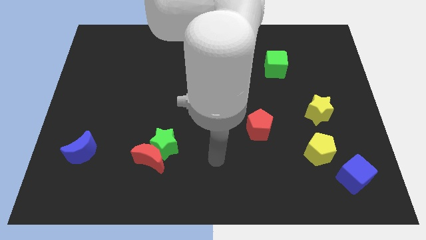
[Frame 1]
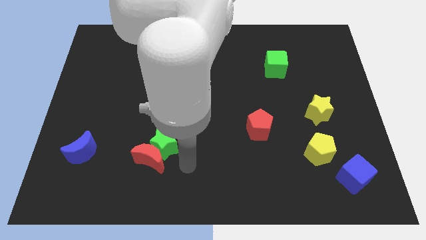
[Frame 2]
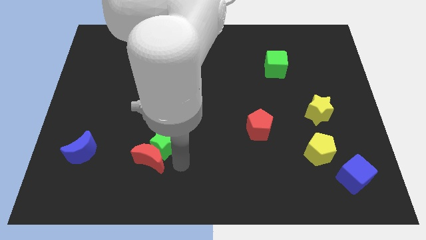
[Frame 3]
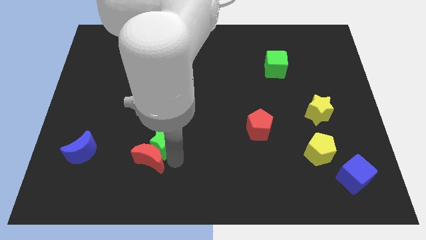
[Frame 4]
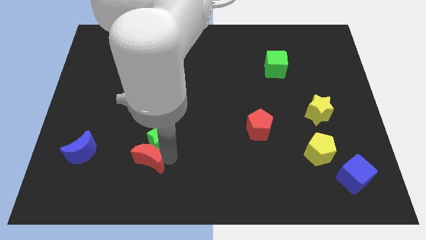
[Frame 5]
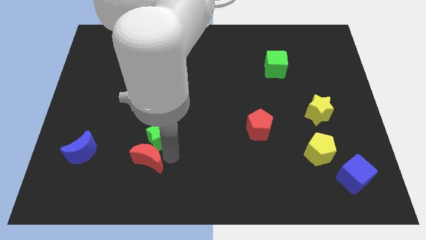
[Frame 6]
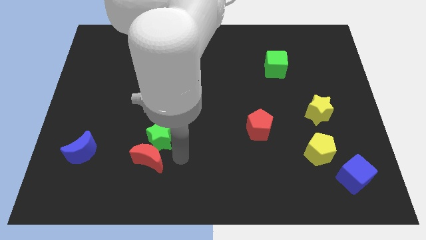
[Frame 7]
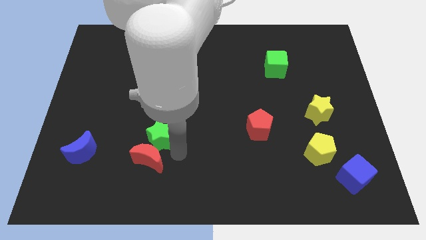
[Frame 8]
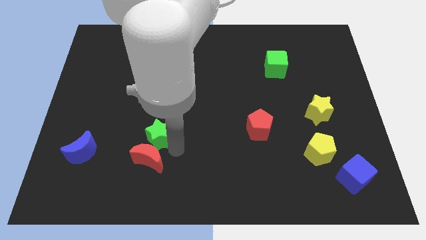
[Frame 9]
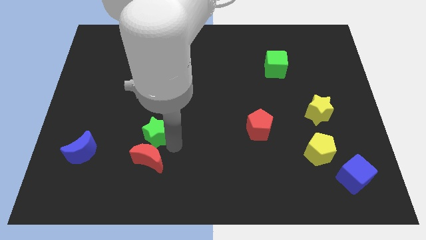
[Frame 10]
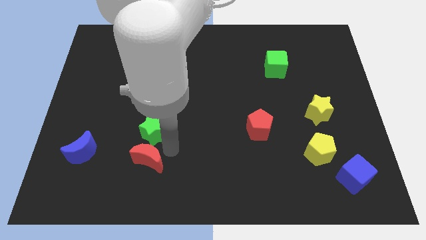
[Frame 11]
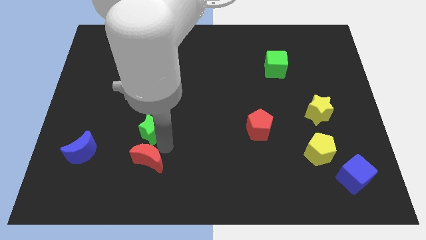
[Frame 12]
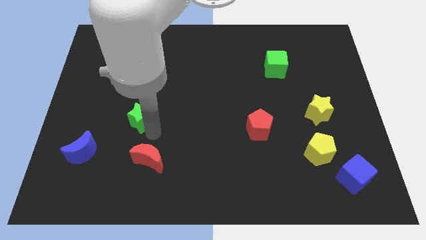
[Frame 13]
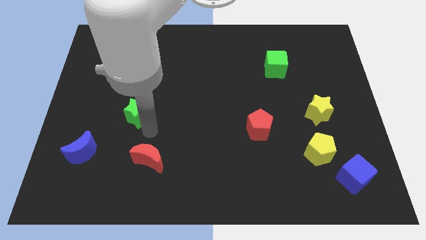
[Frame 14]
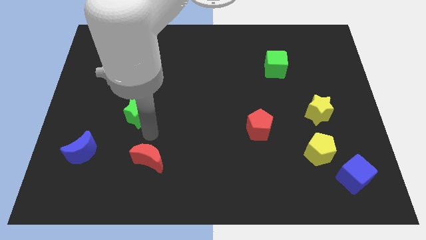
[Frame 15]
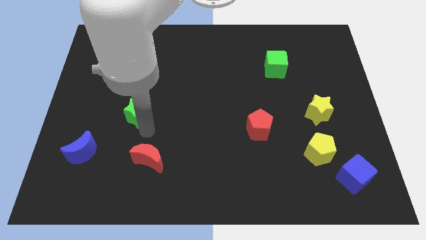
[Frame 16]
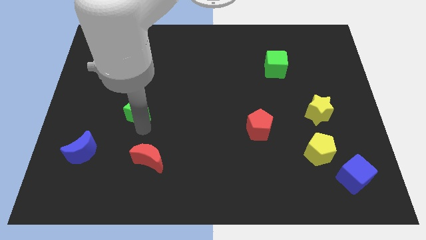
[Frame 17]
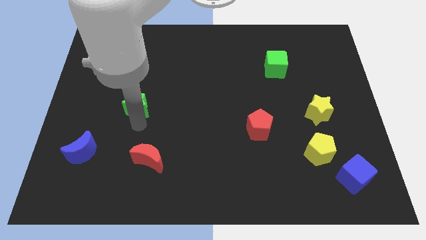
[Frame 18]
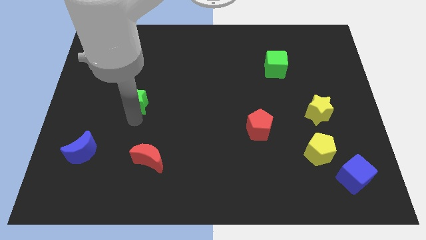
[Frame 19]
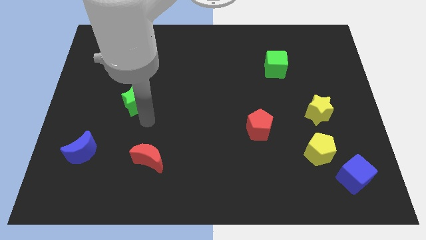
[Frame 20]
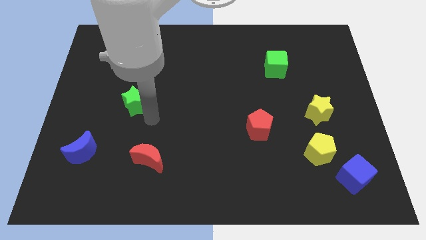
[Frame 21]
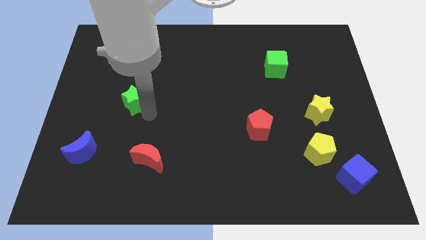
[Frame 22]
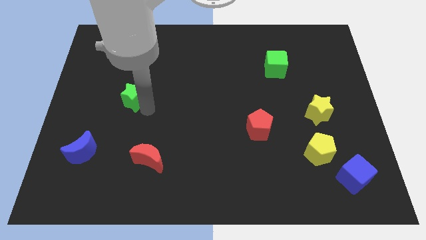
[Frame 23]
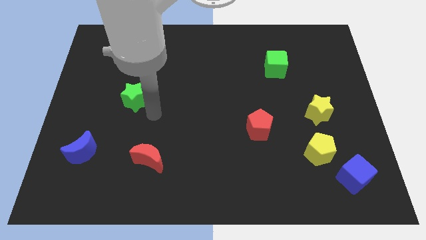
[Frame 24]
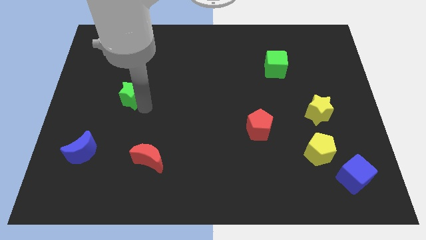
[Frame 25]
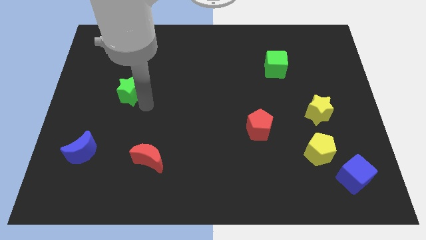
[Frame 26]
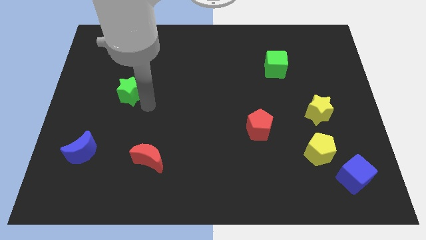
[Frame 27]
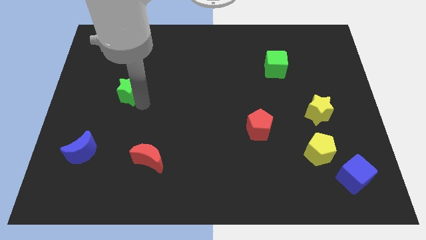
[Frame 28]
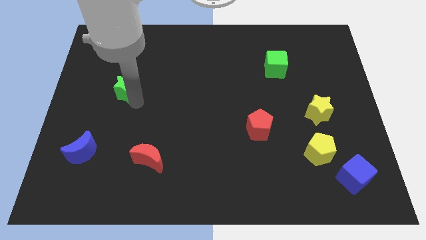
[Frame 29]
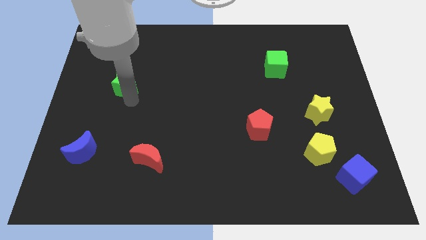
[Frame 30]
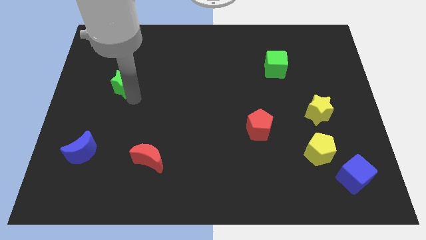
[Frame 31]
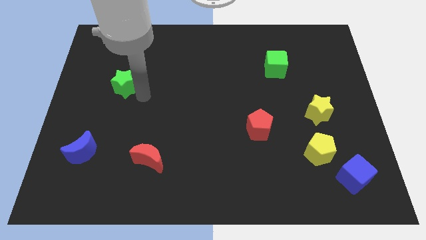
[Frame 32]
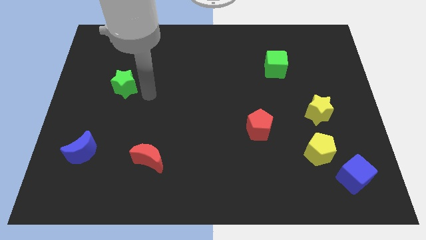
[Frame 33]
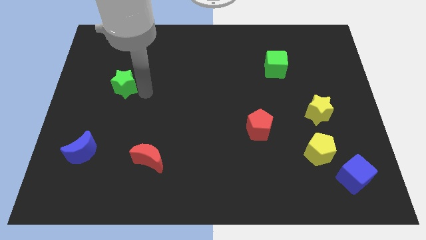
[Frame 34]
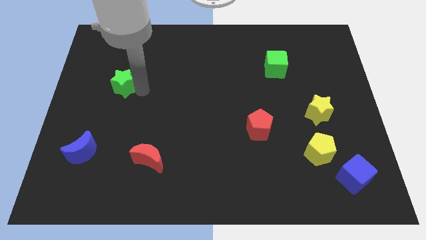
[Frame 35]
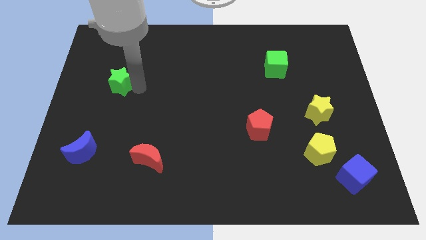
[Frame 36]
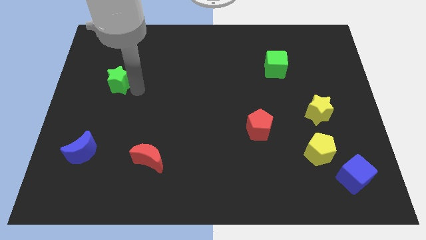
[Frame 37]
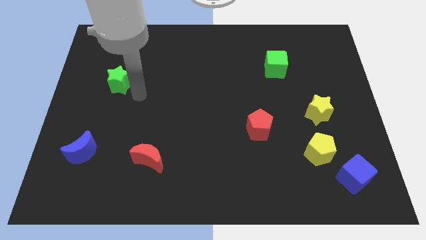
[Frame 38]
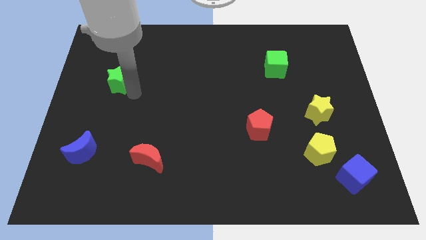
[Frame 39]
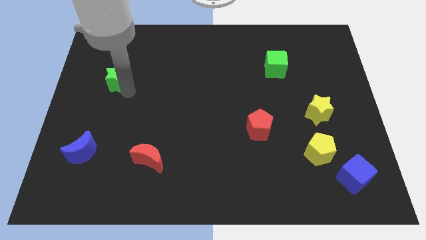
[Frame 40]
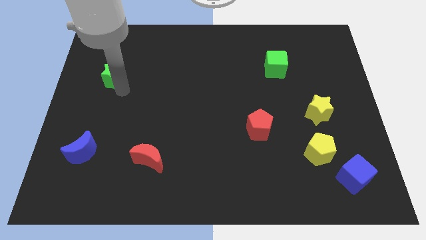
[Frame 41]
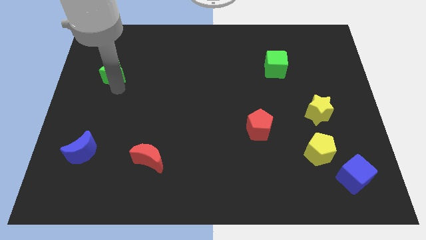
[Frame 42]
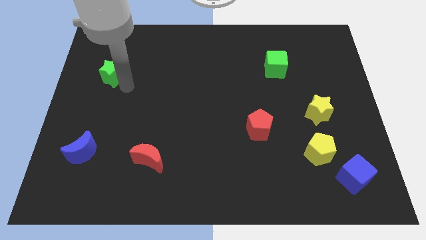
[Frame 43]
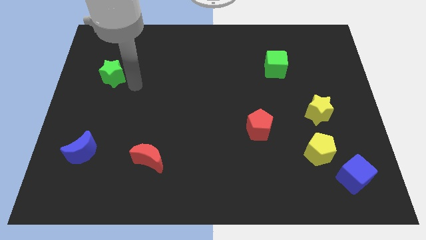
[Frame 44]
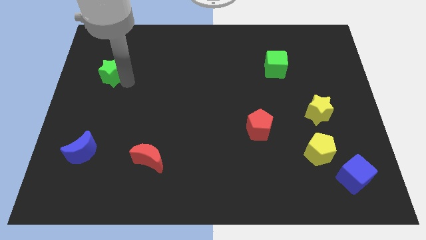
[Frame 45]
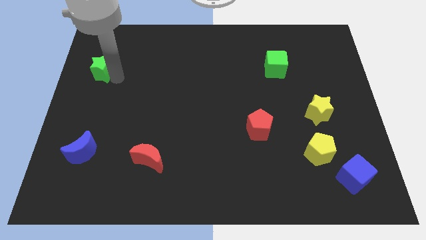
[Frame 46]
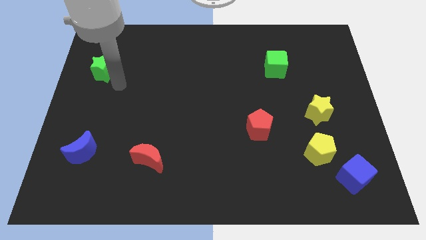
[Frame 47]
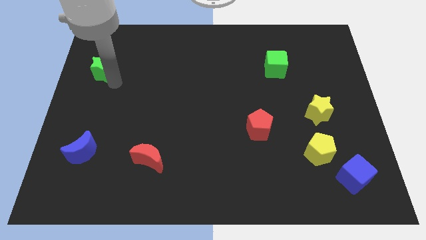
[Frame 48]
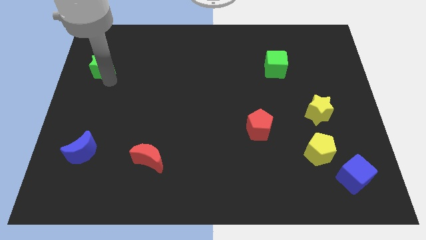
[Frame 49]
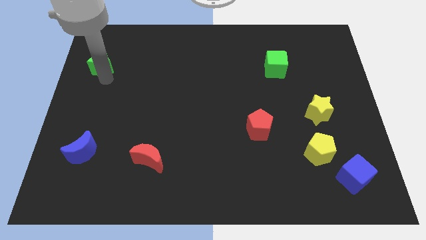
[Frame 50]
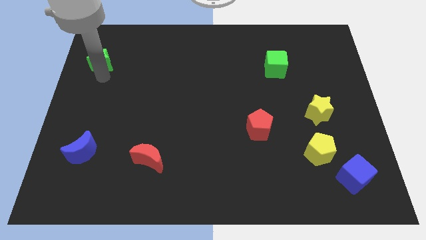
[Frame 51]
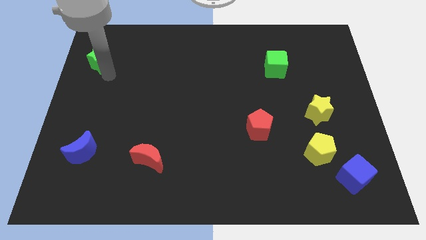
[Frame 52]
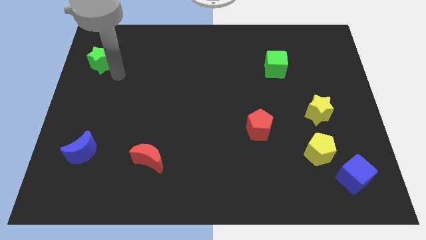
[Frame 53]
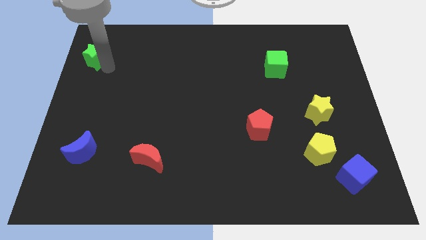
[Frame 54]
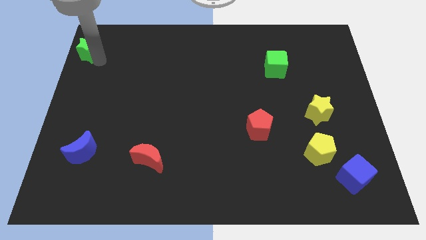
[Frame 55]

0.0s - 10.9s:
put the green star to the upper left corner

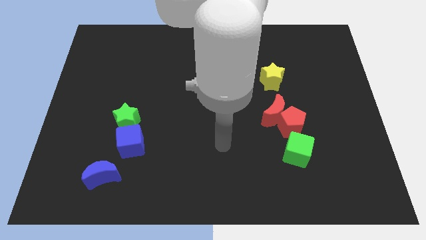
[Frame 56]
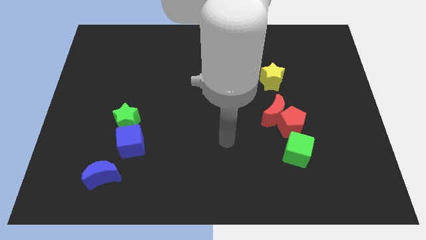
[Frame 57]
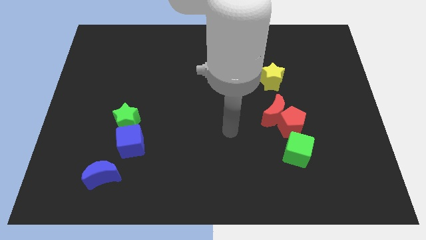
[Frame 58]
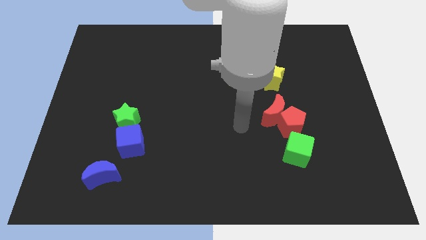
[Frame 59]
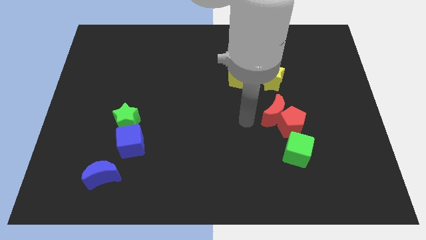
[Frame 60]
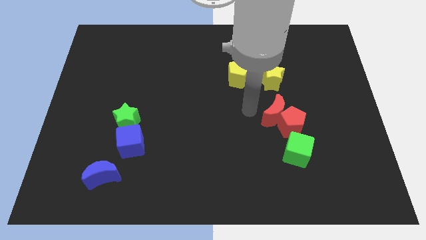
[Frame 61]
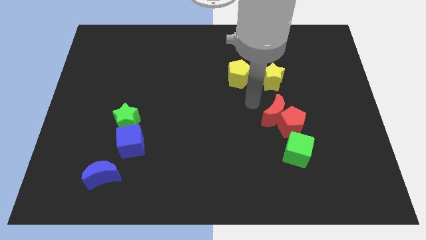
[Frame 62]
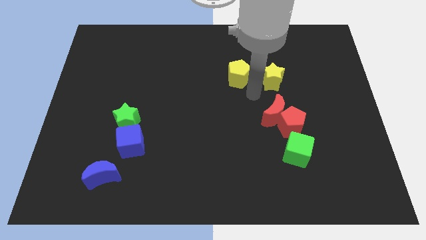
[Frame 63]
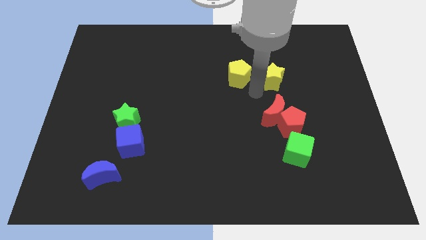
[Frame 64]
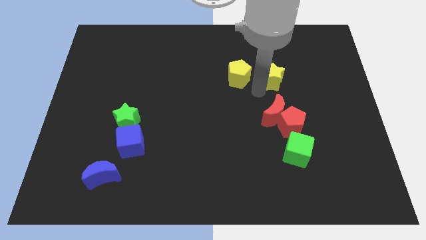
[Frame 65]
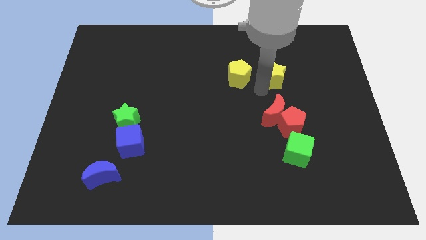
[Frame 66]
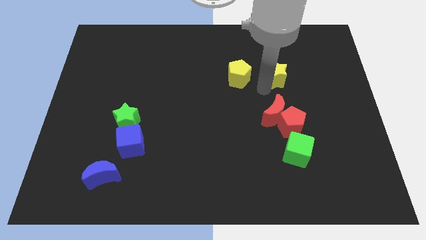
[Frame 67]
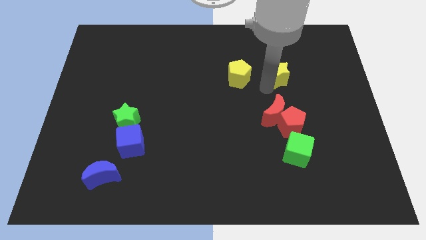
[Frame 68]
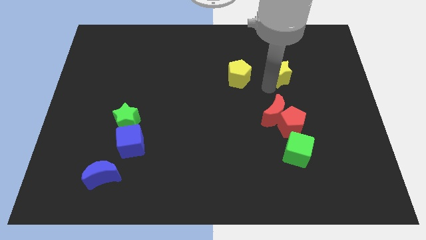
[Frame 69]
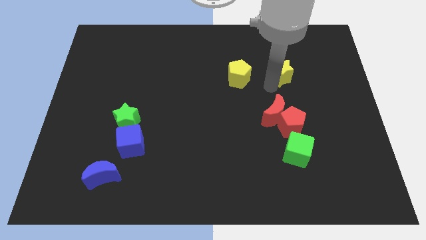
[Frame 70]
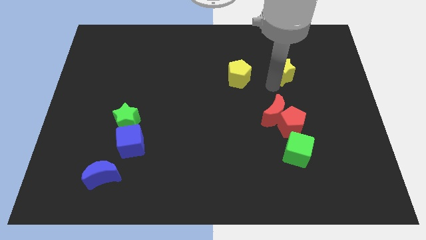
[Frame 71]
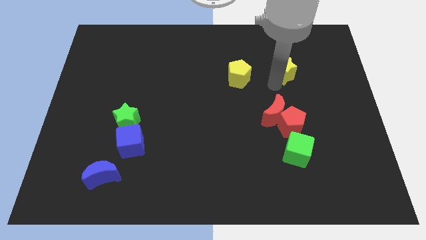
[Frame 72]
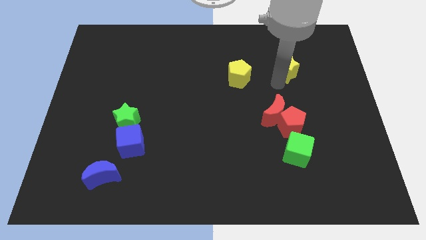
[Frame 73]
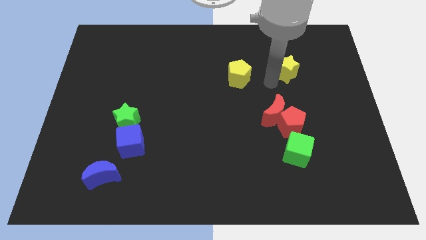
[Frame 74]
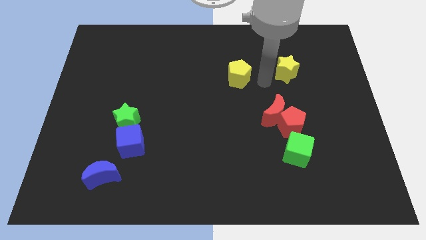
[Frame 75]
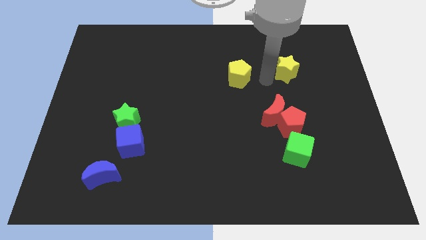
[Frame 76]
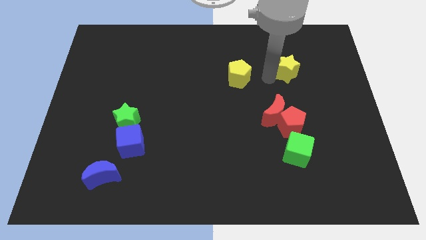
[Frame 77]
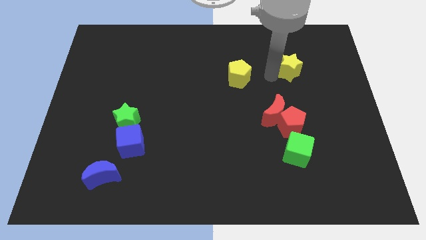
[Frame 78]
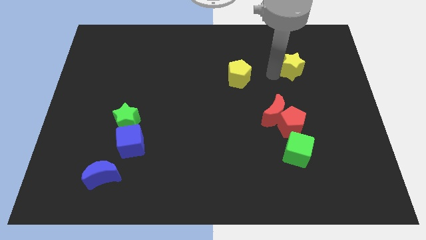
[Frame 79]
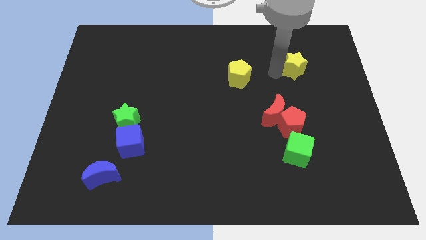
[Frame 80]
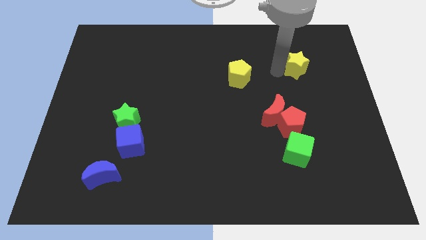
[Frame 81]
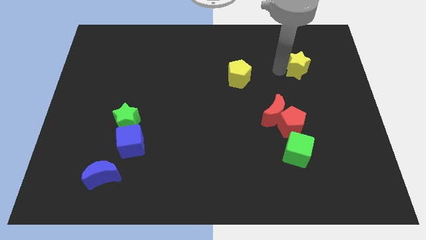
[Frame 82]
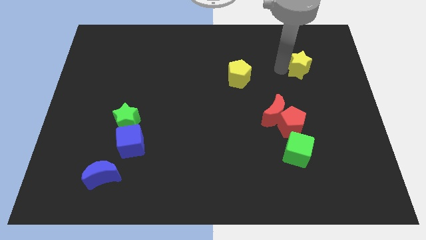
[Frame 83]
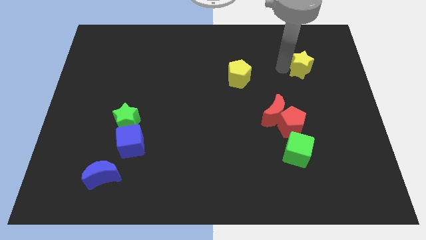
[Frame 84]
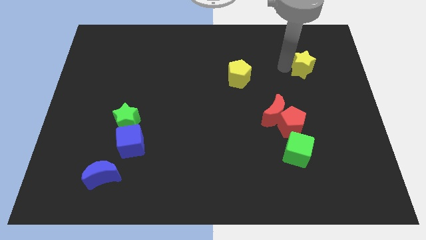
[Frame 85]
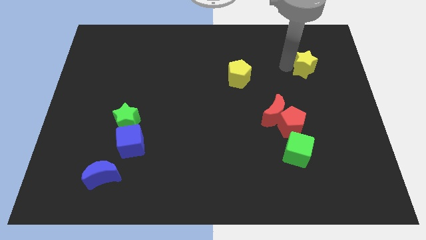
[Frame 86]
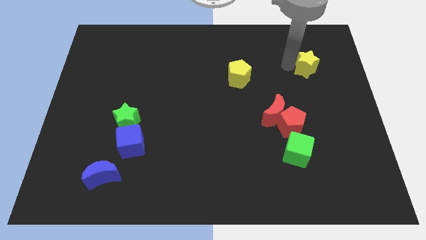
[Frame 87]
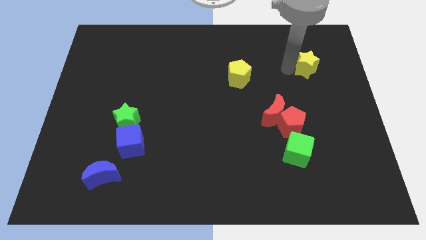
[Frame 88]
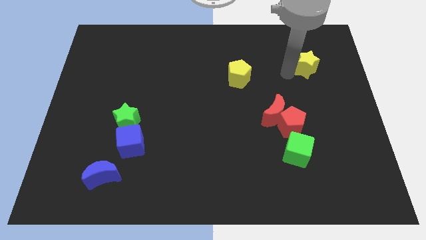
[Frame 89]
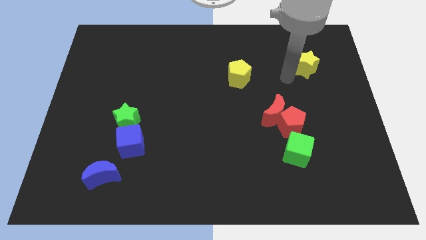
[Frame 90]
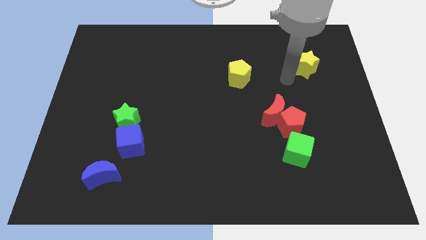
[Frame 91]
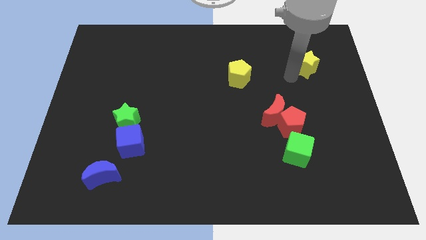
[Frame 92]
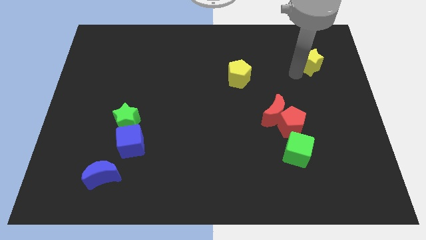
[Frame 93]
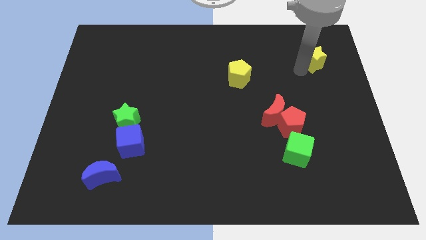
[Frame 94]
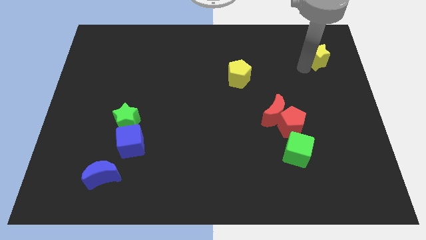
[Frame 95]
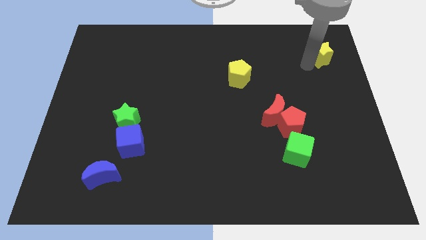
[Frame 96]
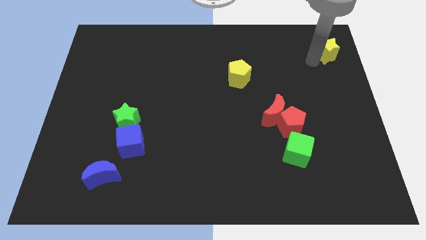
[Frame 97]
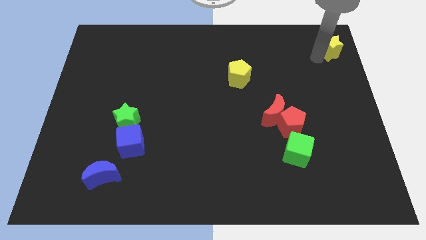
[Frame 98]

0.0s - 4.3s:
move the yellow star to the top right corner
